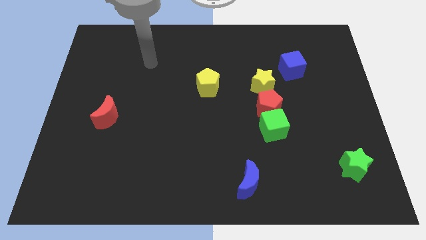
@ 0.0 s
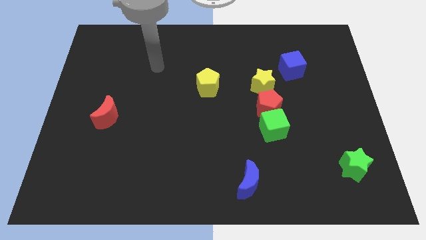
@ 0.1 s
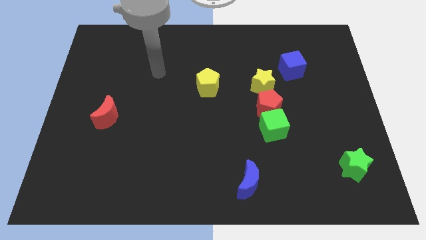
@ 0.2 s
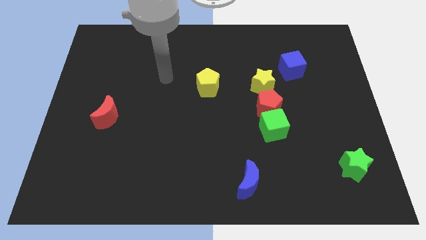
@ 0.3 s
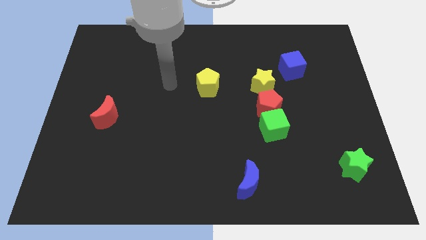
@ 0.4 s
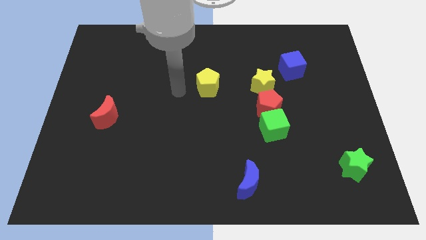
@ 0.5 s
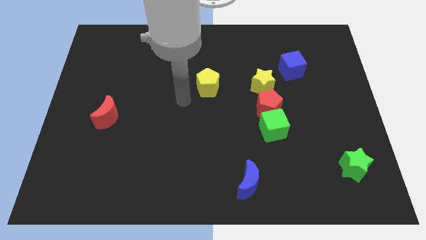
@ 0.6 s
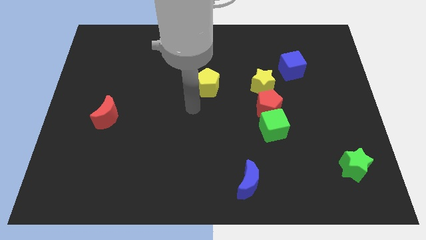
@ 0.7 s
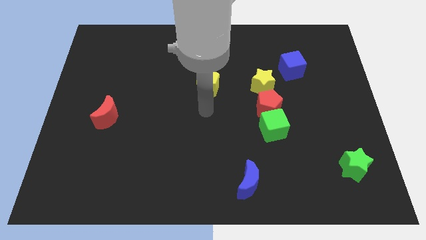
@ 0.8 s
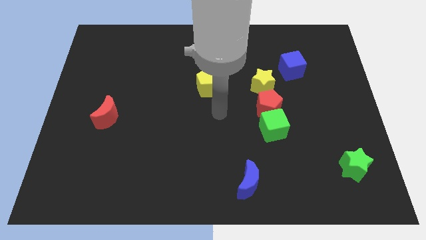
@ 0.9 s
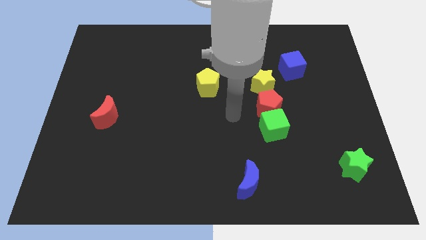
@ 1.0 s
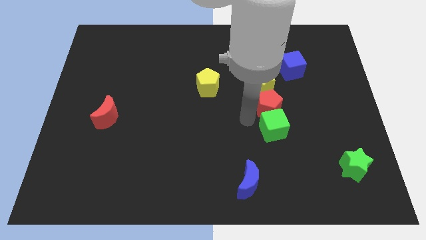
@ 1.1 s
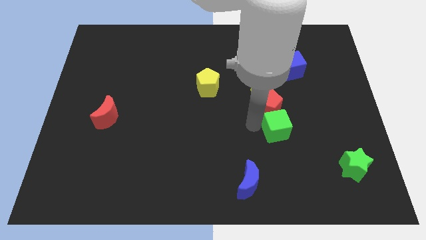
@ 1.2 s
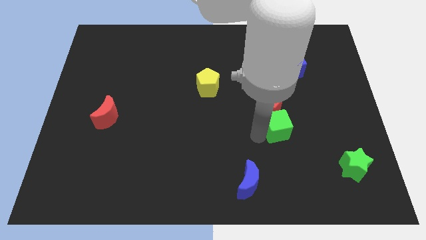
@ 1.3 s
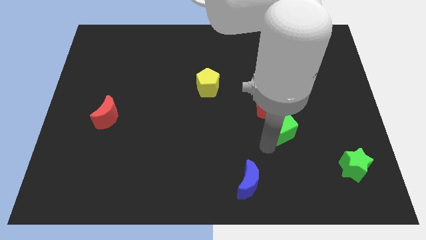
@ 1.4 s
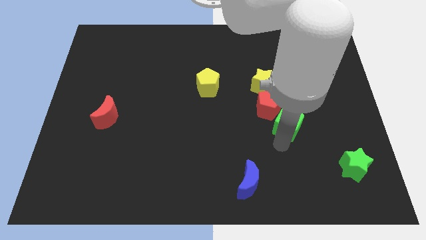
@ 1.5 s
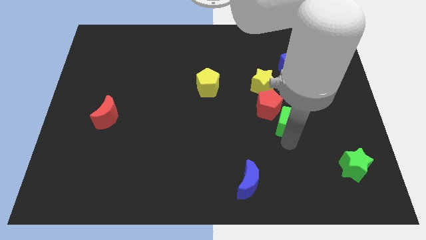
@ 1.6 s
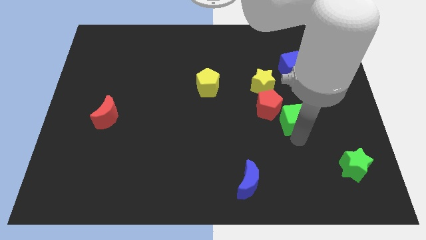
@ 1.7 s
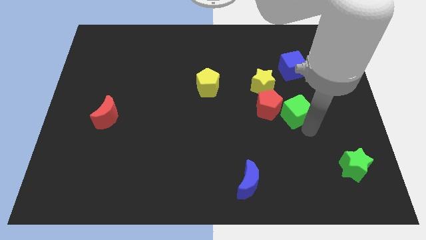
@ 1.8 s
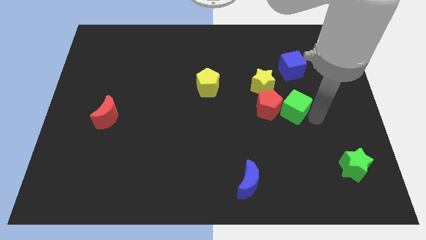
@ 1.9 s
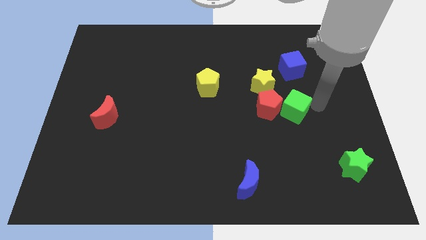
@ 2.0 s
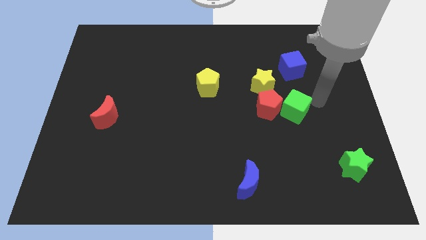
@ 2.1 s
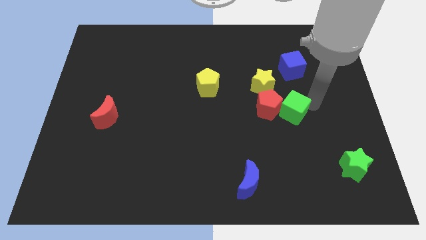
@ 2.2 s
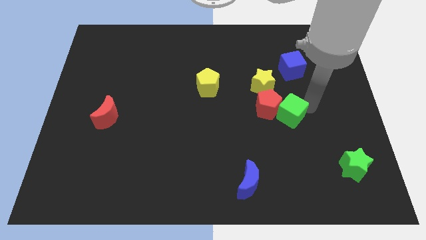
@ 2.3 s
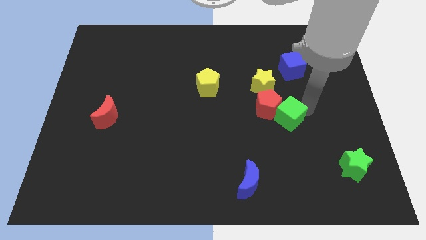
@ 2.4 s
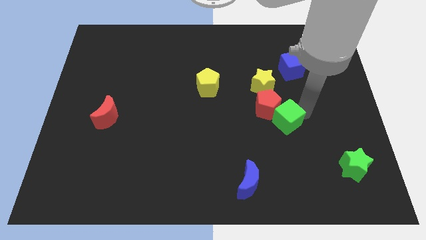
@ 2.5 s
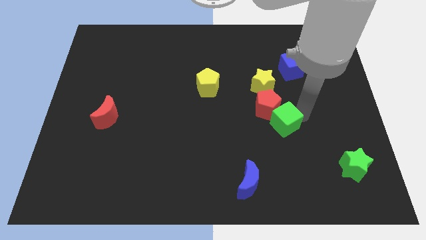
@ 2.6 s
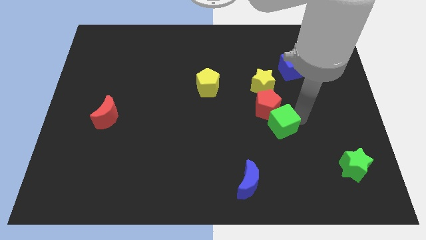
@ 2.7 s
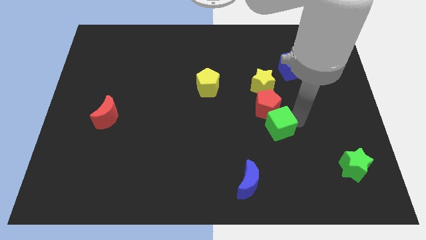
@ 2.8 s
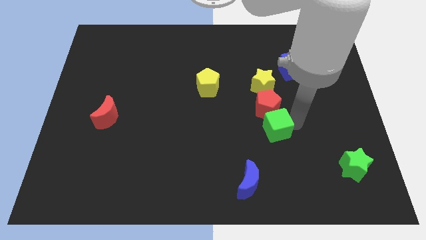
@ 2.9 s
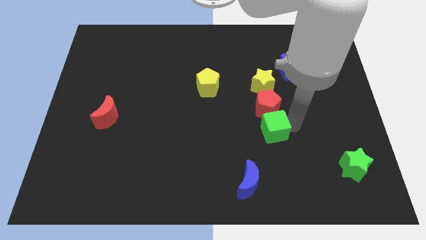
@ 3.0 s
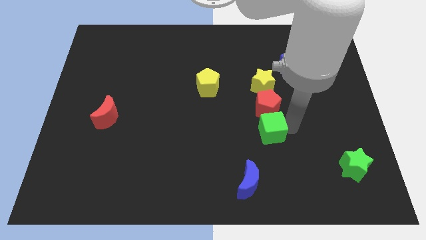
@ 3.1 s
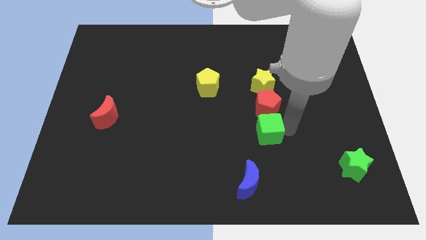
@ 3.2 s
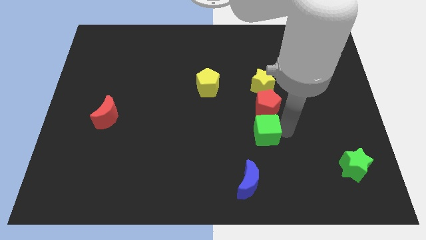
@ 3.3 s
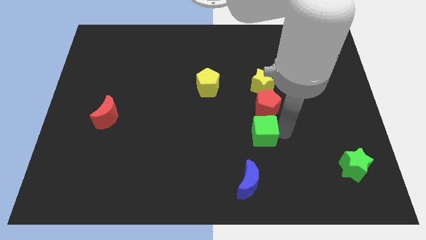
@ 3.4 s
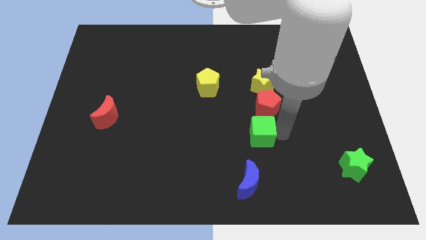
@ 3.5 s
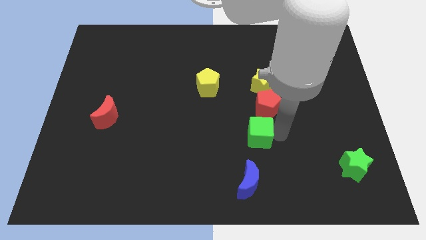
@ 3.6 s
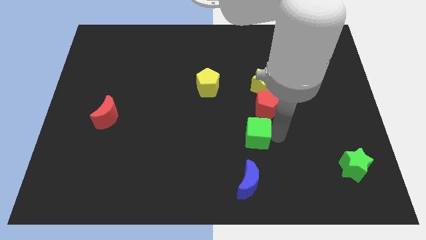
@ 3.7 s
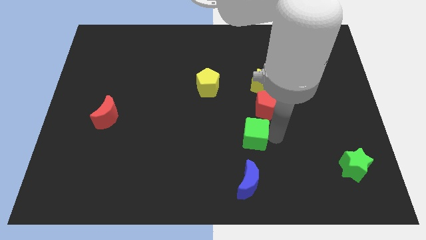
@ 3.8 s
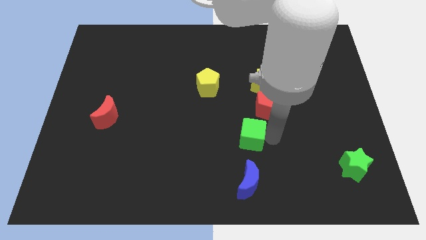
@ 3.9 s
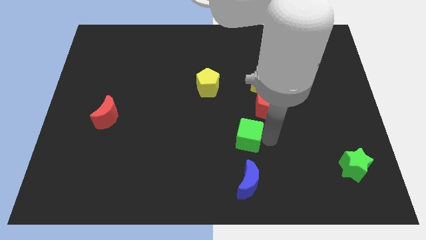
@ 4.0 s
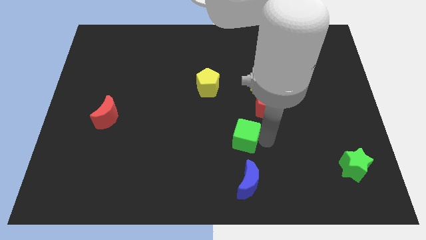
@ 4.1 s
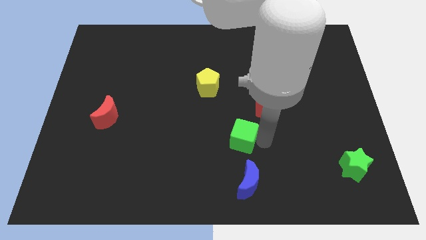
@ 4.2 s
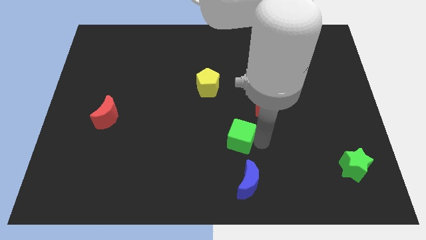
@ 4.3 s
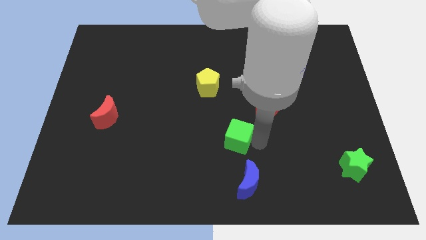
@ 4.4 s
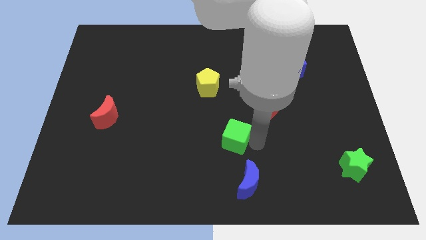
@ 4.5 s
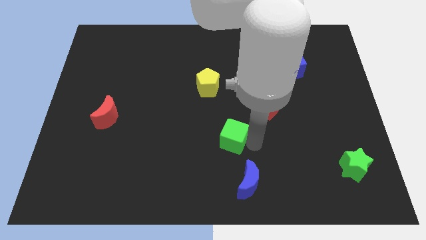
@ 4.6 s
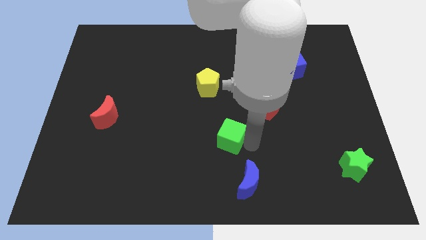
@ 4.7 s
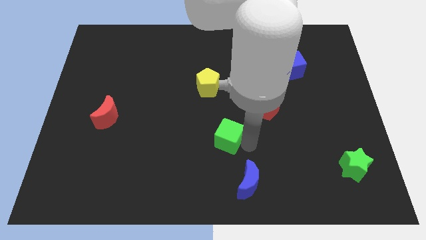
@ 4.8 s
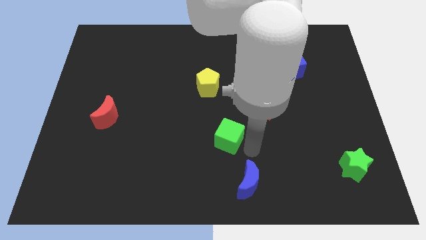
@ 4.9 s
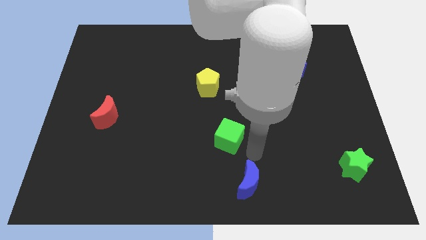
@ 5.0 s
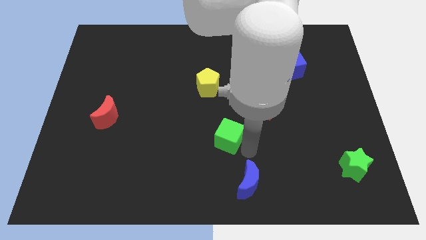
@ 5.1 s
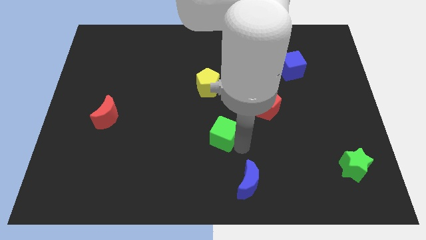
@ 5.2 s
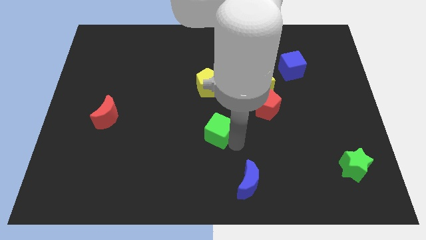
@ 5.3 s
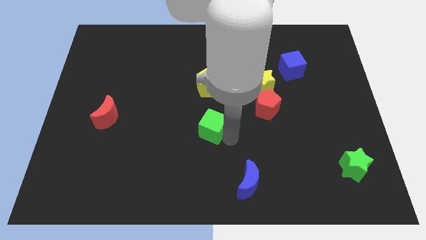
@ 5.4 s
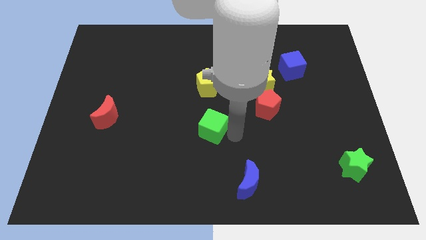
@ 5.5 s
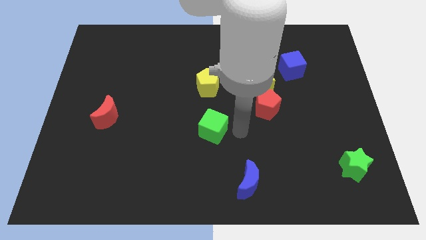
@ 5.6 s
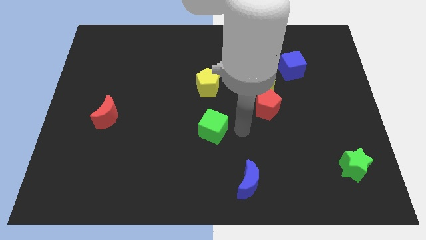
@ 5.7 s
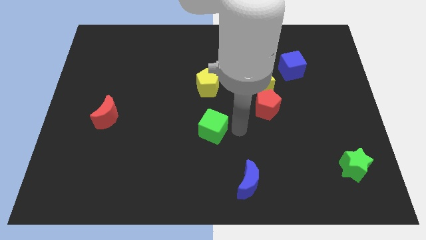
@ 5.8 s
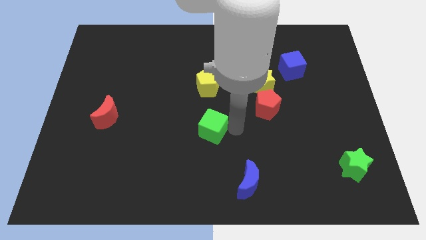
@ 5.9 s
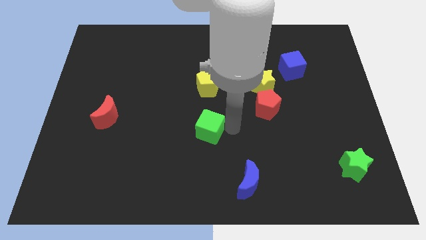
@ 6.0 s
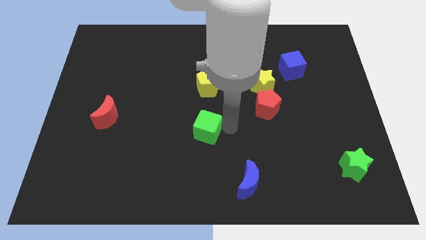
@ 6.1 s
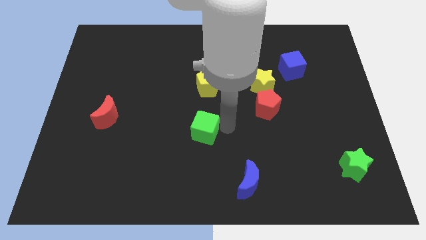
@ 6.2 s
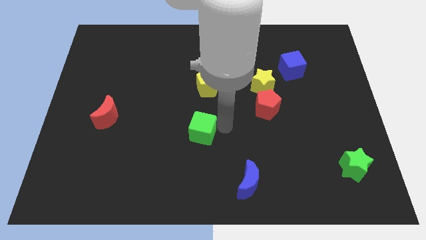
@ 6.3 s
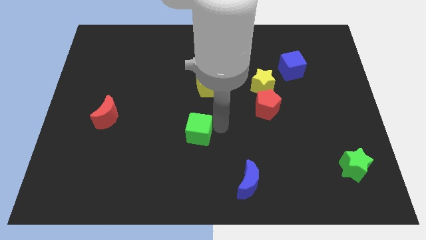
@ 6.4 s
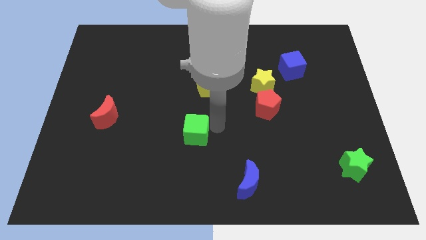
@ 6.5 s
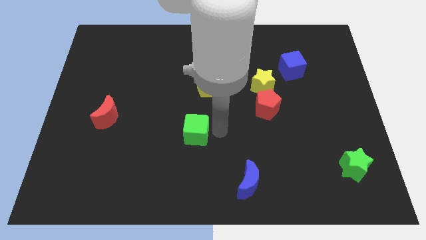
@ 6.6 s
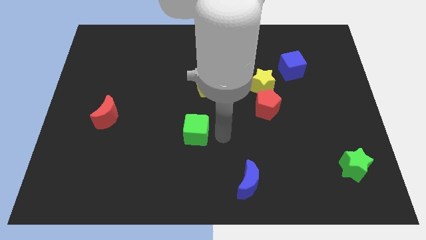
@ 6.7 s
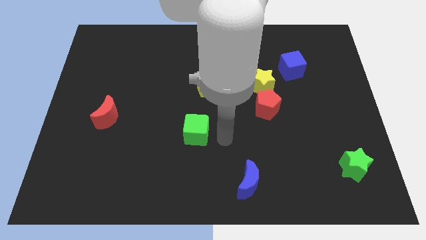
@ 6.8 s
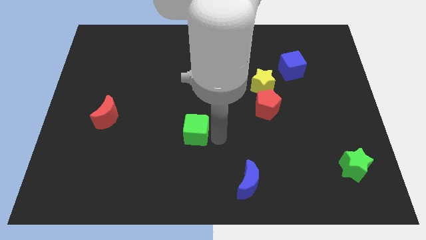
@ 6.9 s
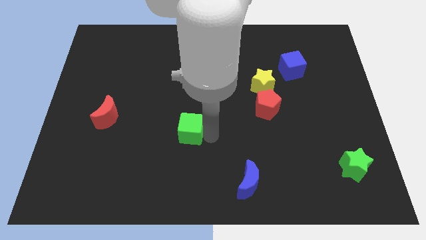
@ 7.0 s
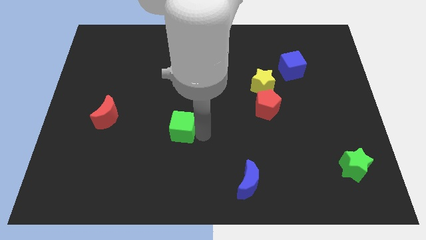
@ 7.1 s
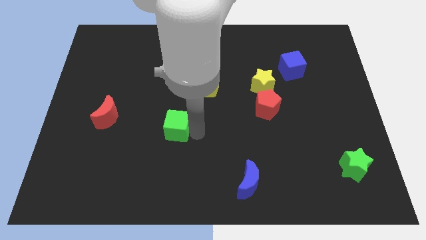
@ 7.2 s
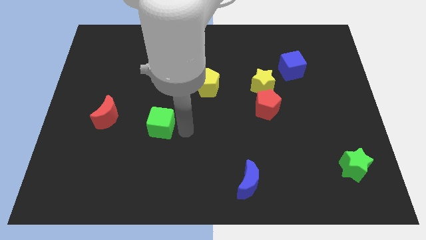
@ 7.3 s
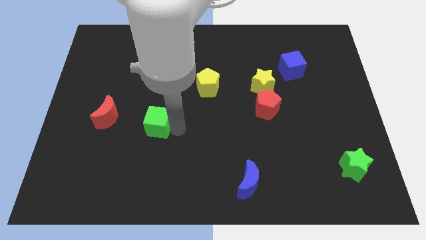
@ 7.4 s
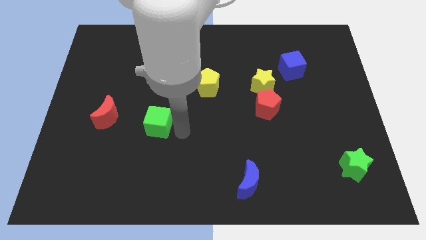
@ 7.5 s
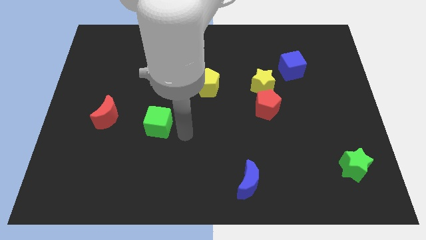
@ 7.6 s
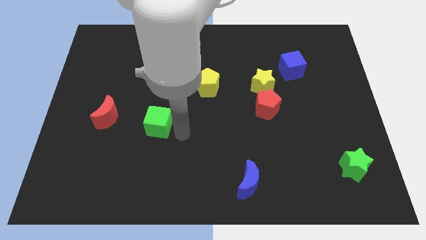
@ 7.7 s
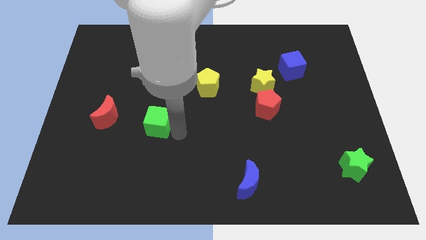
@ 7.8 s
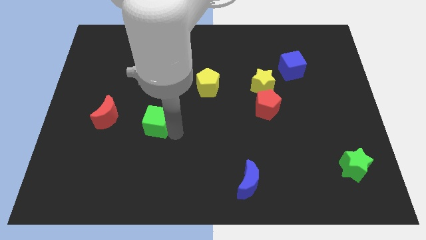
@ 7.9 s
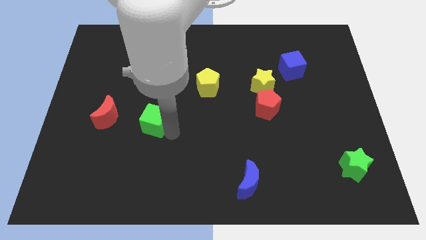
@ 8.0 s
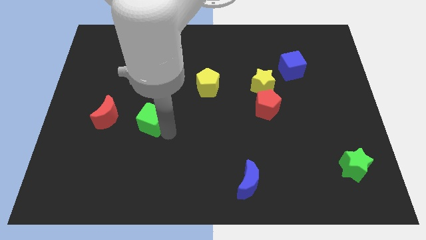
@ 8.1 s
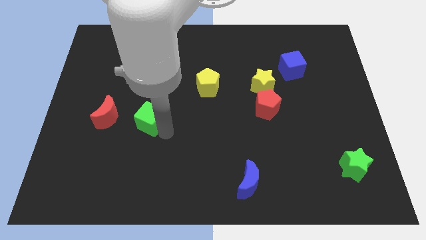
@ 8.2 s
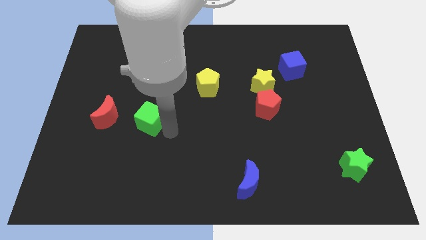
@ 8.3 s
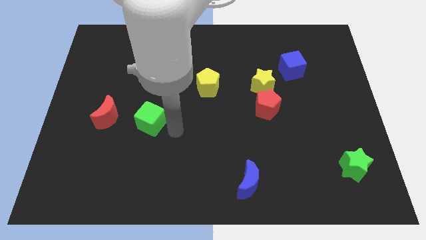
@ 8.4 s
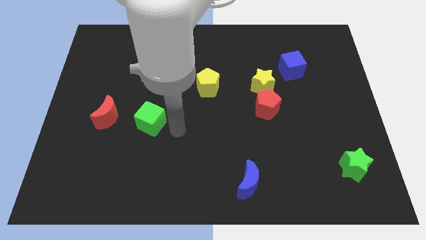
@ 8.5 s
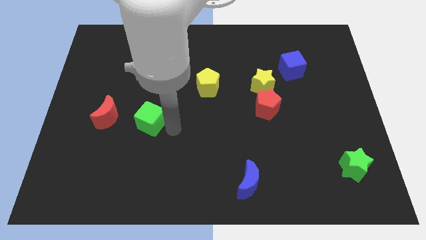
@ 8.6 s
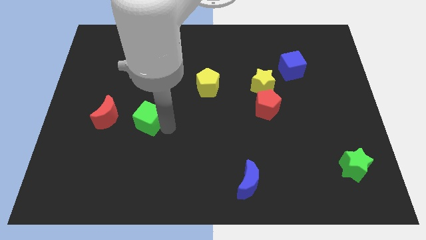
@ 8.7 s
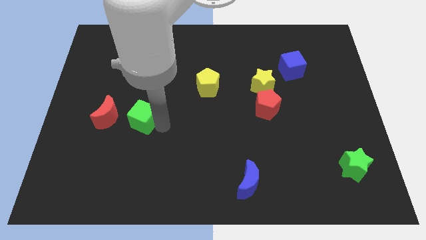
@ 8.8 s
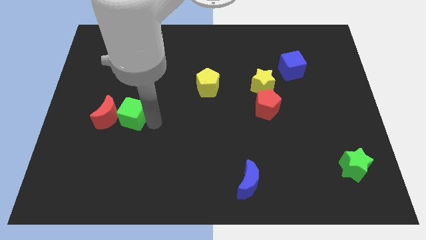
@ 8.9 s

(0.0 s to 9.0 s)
move the green cube next to the red moon
